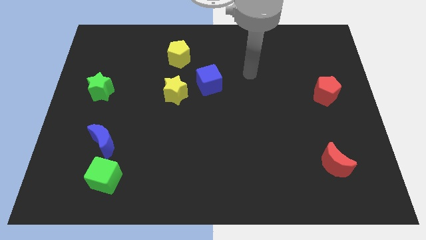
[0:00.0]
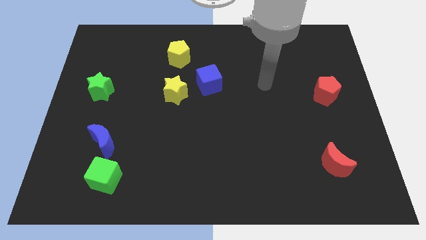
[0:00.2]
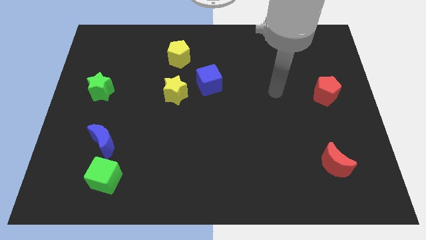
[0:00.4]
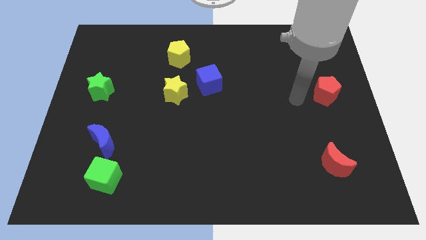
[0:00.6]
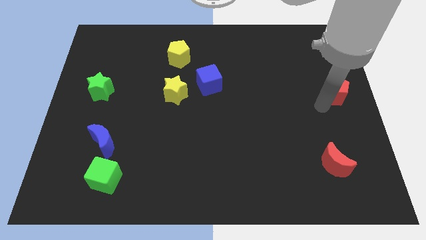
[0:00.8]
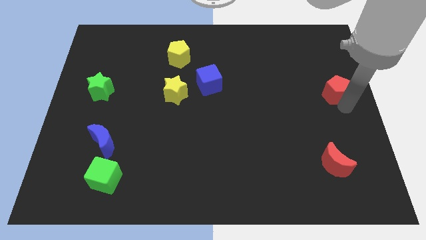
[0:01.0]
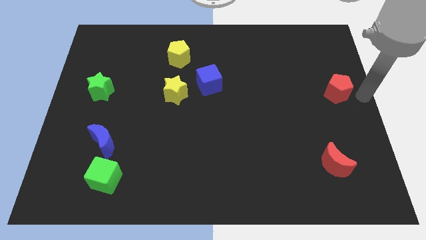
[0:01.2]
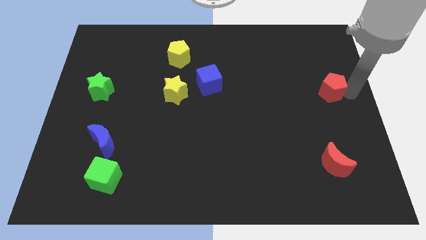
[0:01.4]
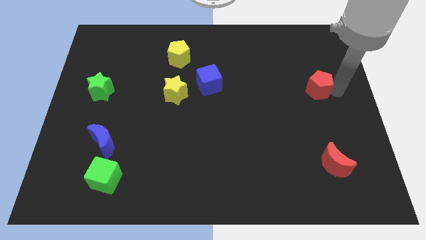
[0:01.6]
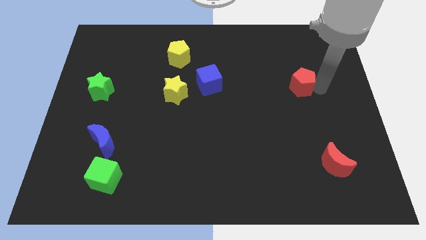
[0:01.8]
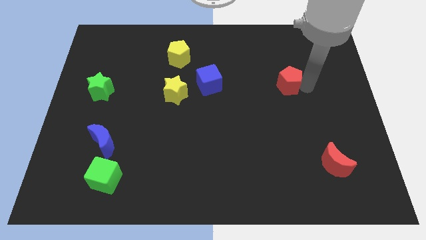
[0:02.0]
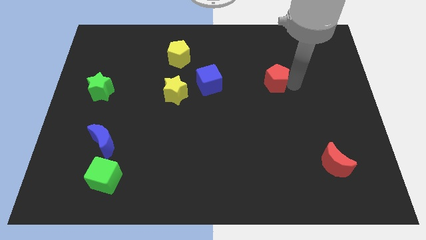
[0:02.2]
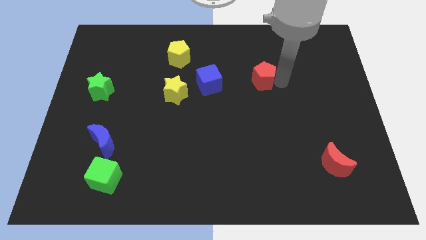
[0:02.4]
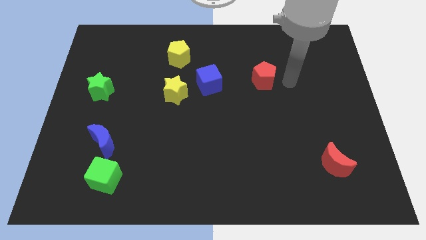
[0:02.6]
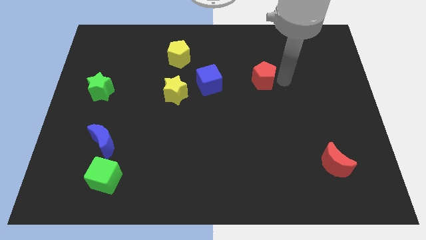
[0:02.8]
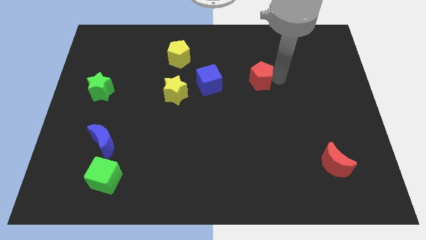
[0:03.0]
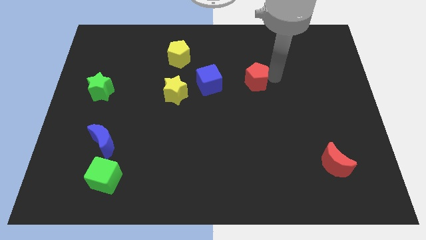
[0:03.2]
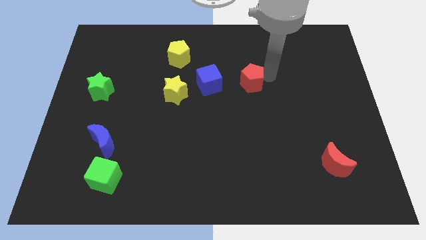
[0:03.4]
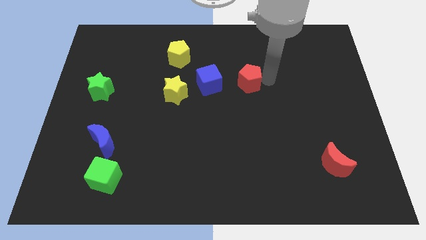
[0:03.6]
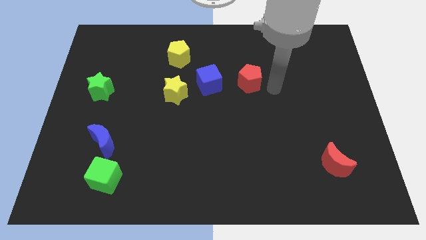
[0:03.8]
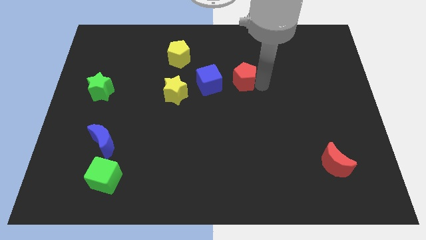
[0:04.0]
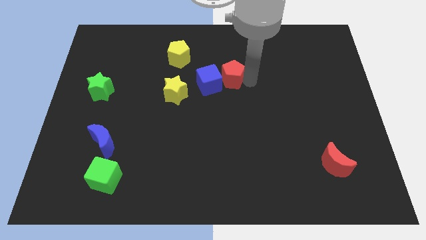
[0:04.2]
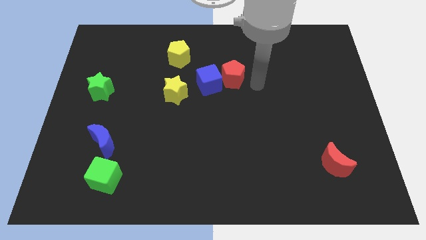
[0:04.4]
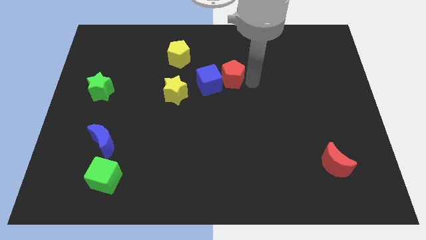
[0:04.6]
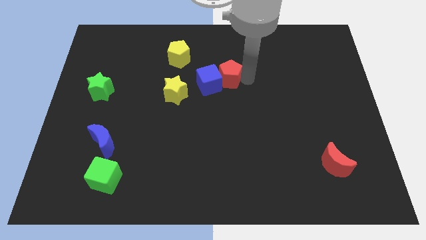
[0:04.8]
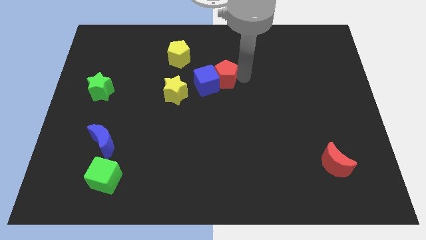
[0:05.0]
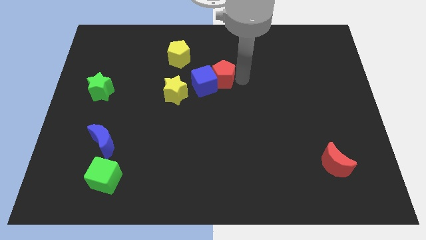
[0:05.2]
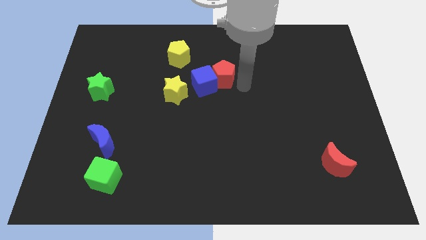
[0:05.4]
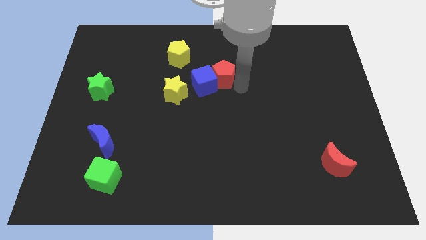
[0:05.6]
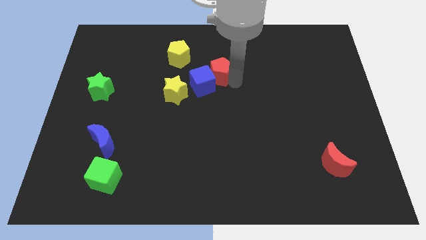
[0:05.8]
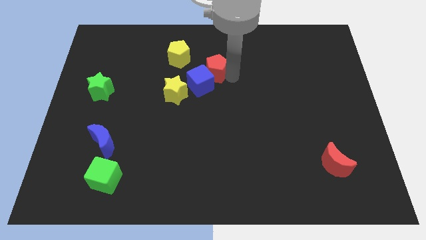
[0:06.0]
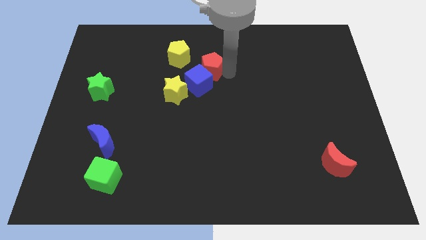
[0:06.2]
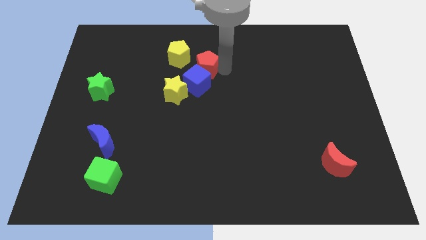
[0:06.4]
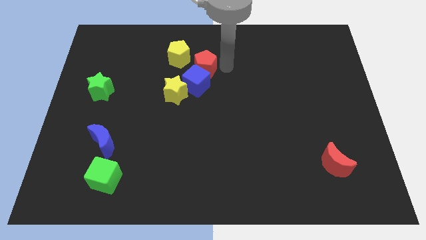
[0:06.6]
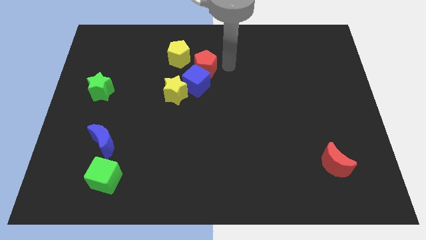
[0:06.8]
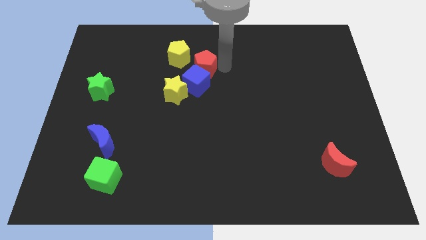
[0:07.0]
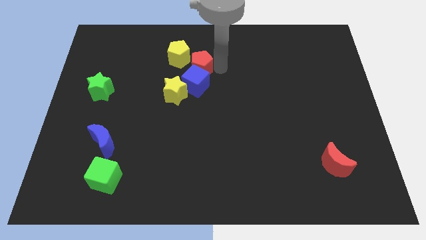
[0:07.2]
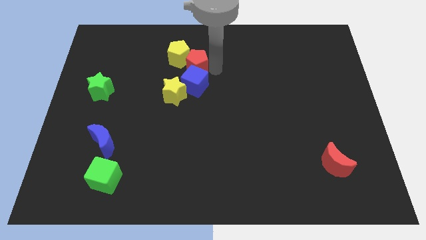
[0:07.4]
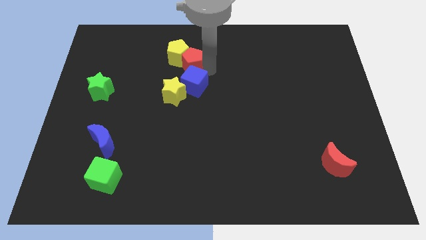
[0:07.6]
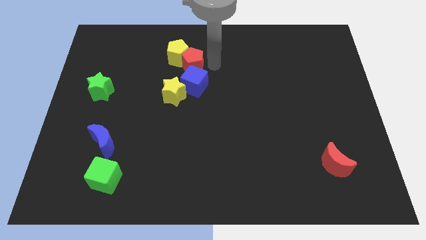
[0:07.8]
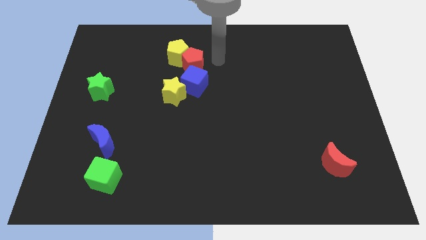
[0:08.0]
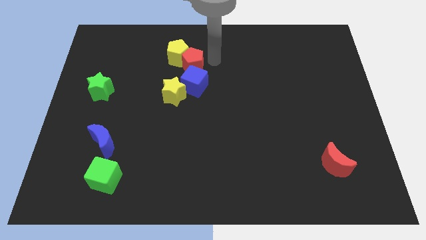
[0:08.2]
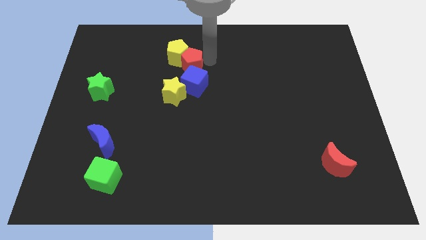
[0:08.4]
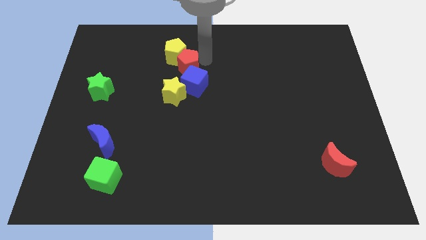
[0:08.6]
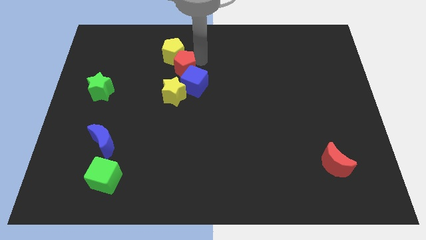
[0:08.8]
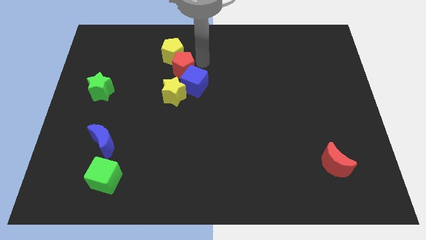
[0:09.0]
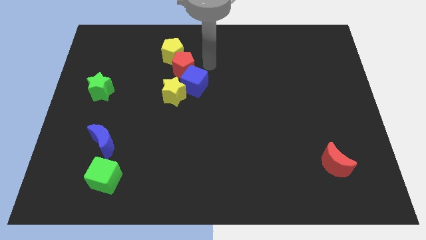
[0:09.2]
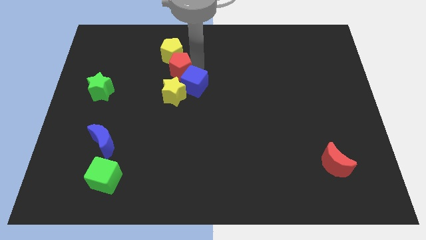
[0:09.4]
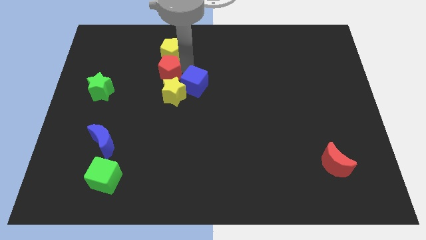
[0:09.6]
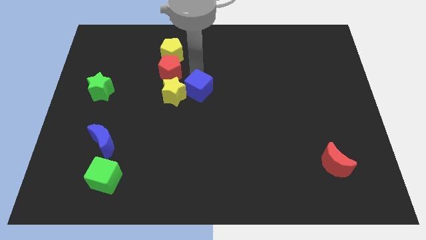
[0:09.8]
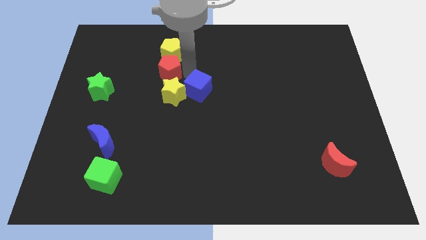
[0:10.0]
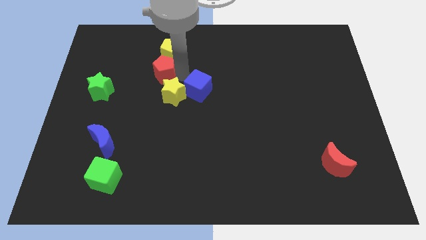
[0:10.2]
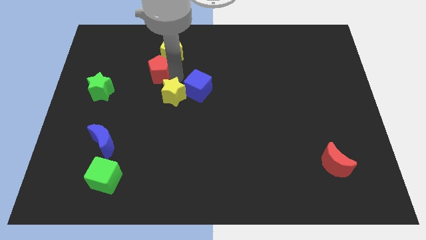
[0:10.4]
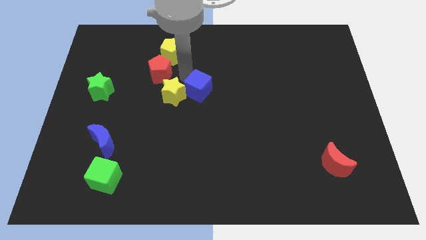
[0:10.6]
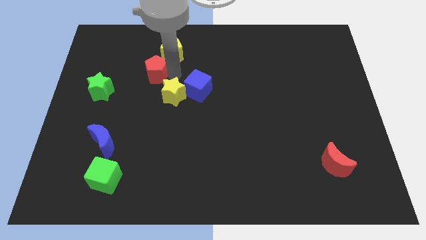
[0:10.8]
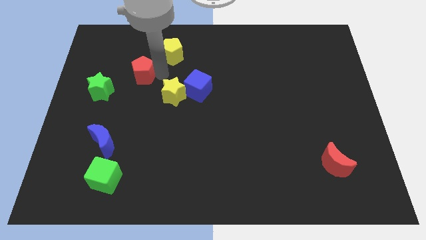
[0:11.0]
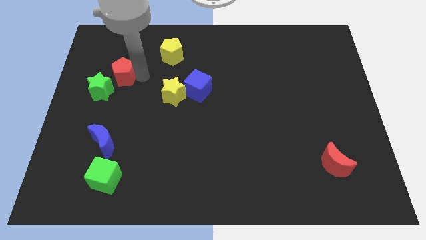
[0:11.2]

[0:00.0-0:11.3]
push the red pentagon to the top side of the green star

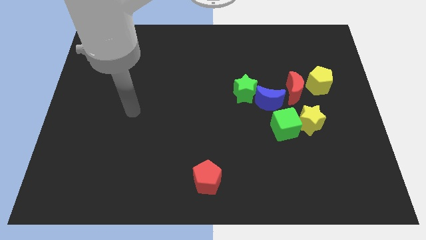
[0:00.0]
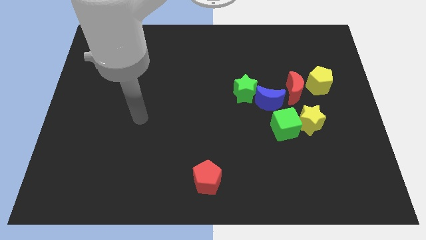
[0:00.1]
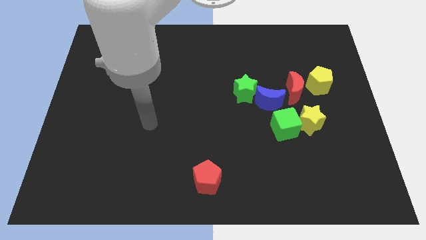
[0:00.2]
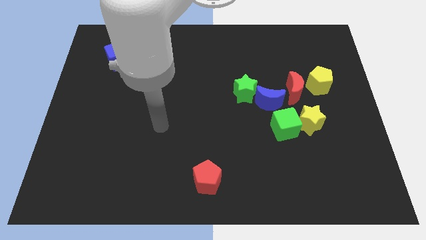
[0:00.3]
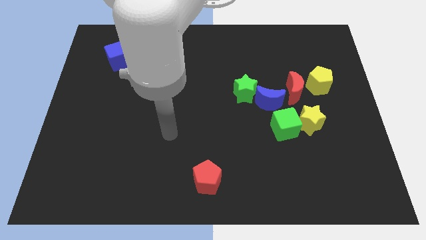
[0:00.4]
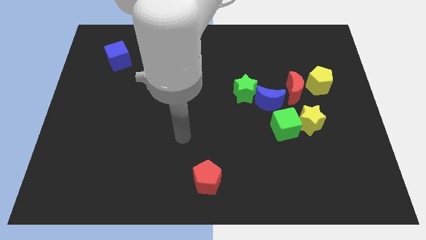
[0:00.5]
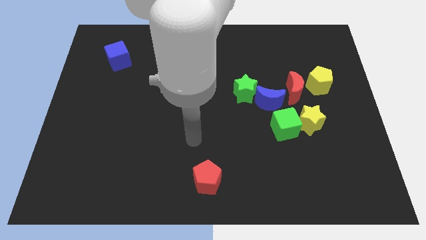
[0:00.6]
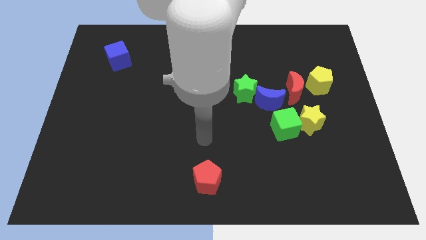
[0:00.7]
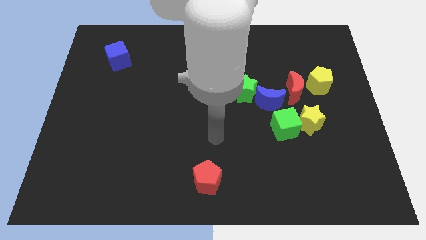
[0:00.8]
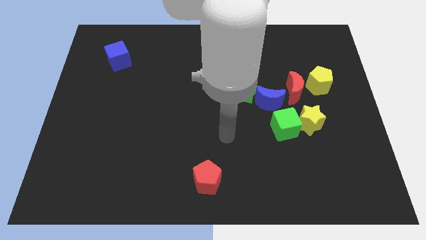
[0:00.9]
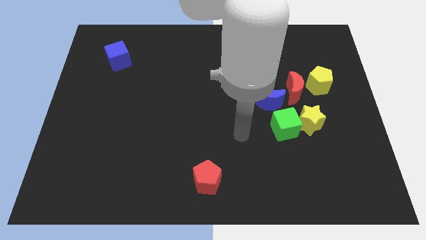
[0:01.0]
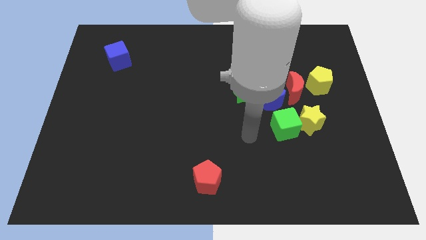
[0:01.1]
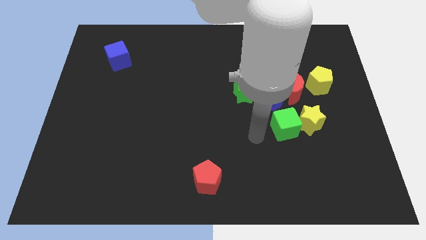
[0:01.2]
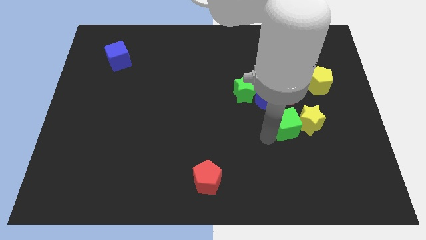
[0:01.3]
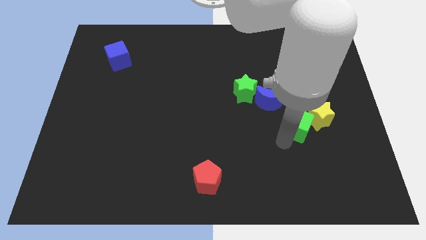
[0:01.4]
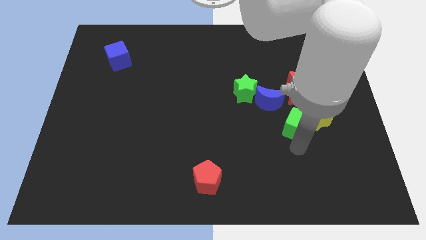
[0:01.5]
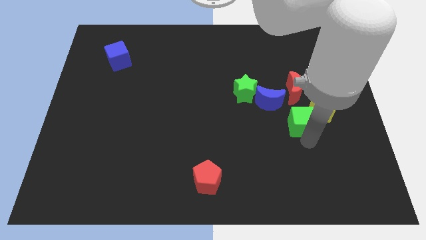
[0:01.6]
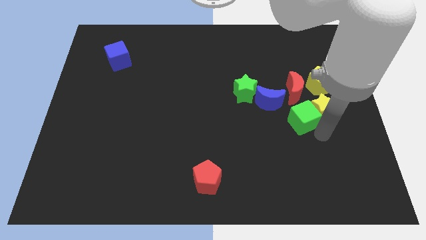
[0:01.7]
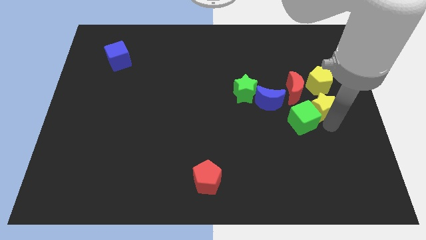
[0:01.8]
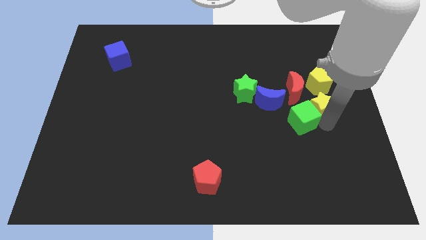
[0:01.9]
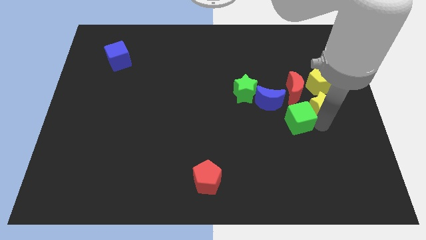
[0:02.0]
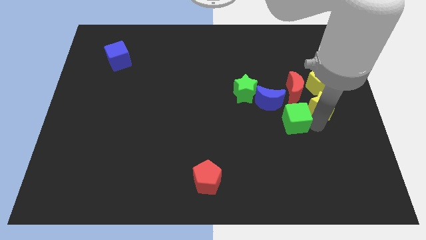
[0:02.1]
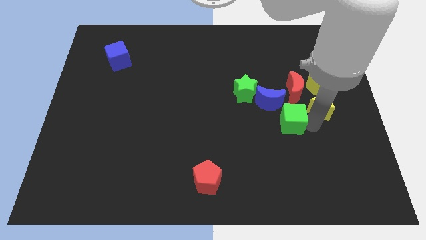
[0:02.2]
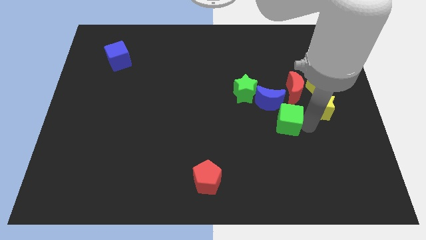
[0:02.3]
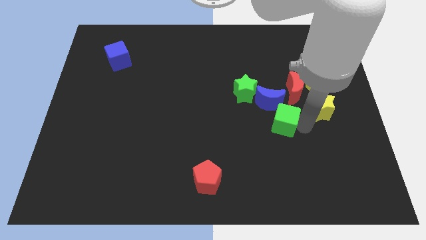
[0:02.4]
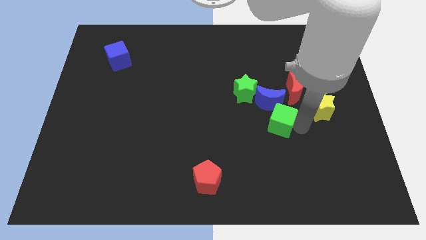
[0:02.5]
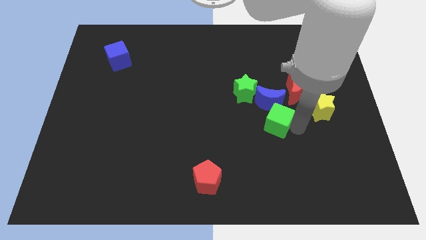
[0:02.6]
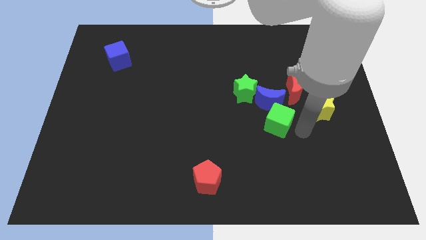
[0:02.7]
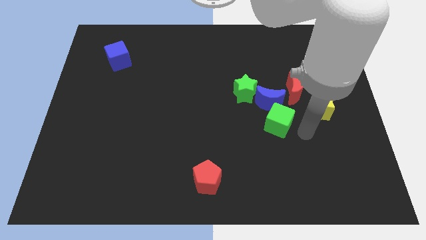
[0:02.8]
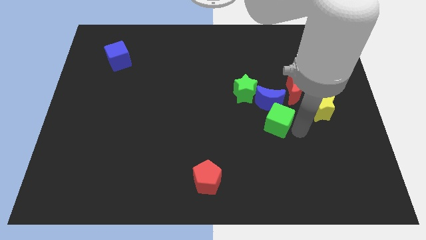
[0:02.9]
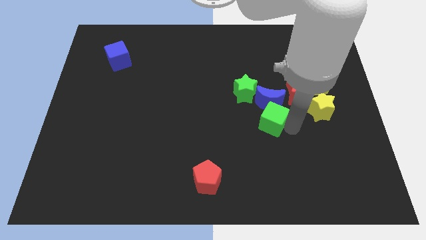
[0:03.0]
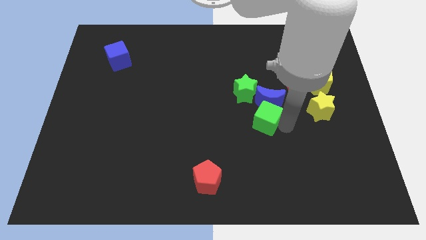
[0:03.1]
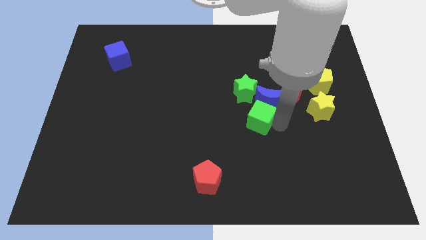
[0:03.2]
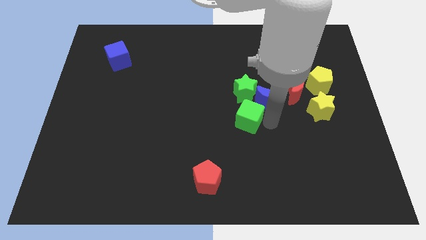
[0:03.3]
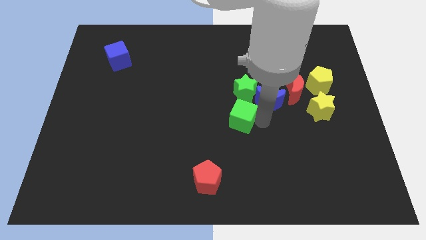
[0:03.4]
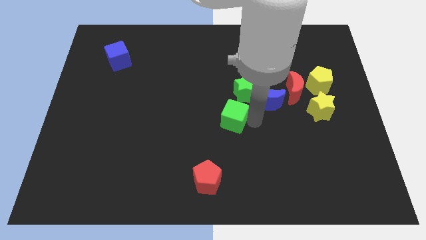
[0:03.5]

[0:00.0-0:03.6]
move the green cube to the bottom left of the green star
